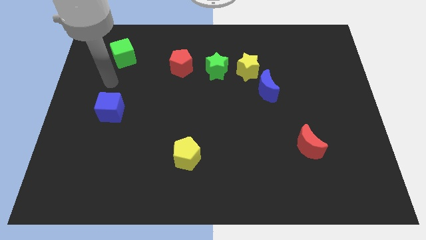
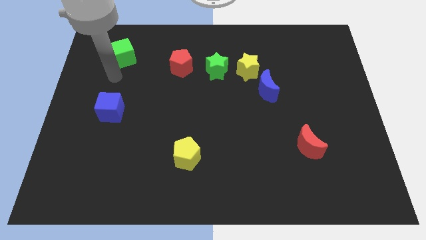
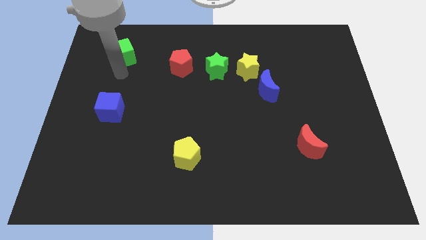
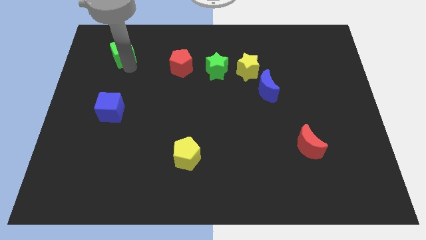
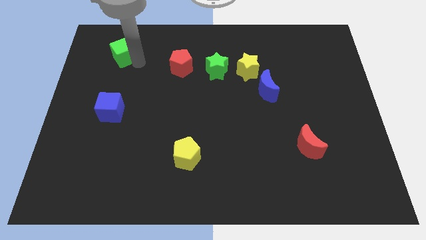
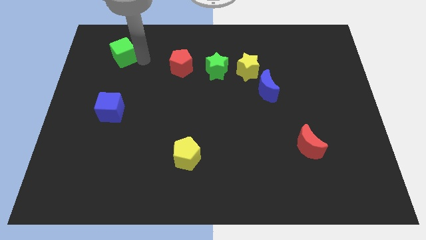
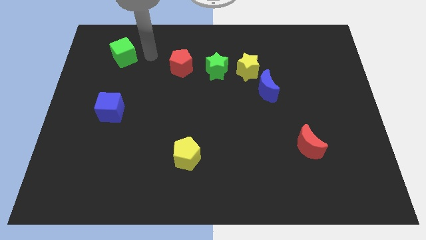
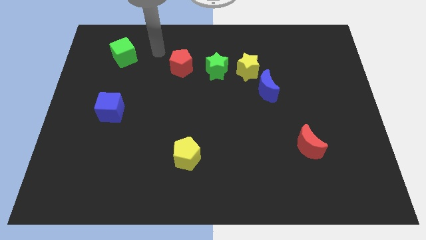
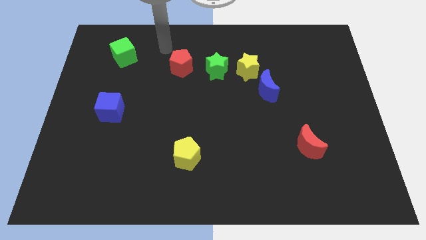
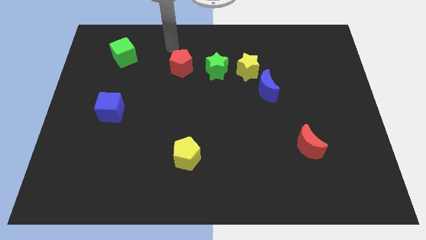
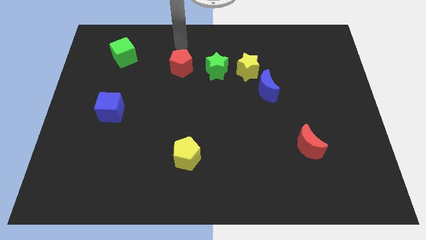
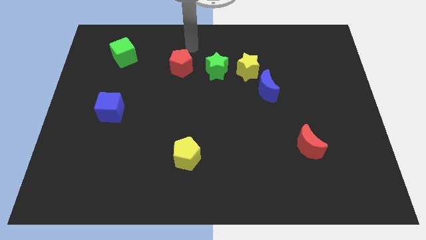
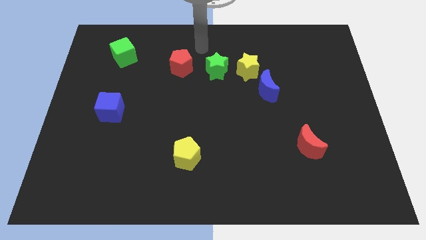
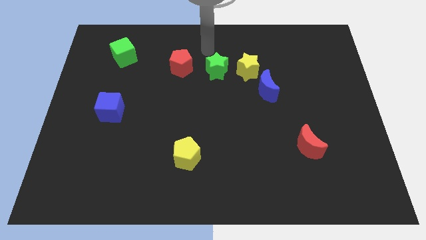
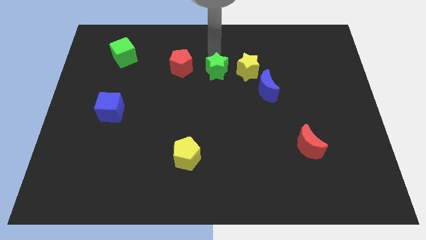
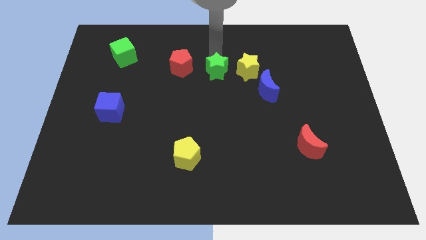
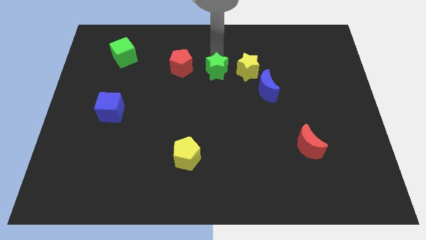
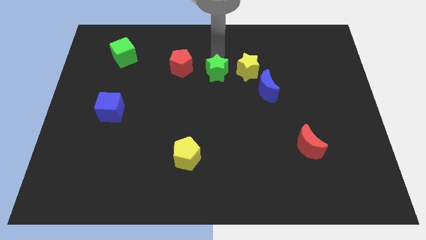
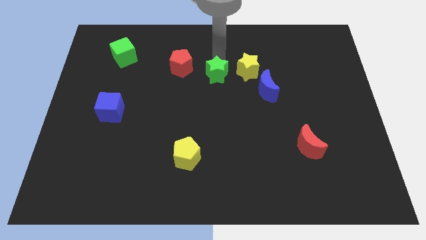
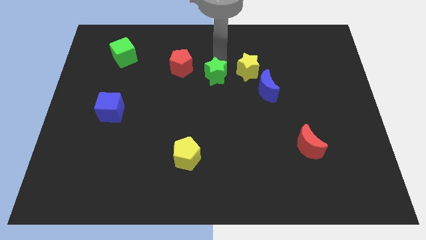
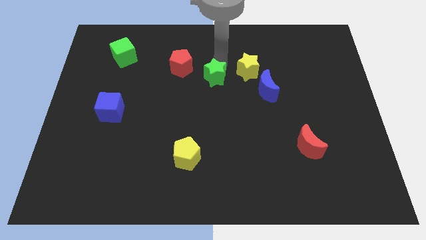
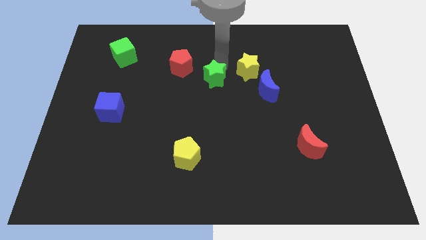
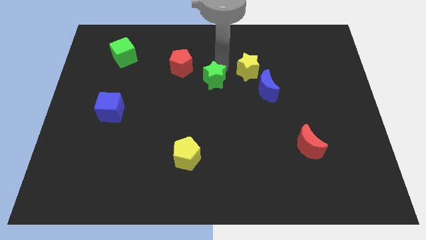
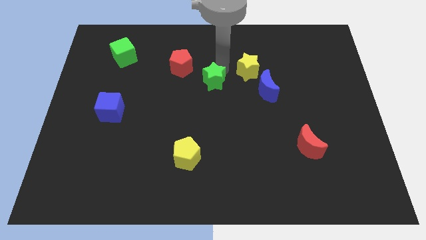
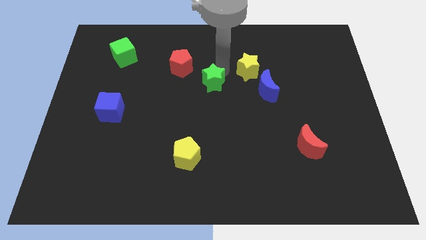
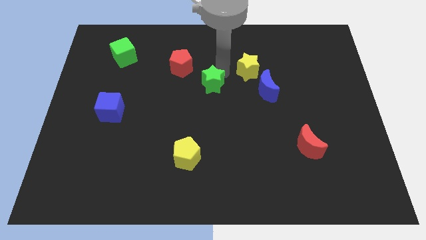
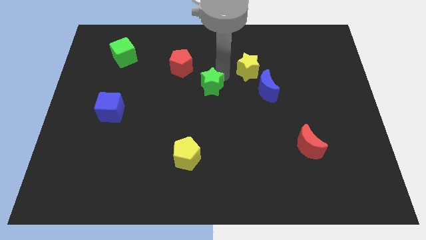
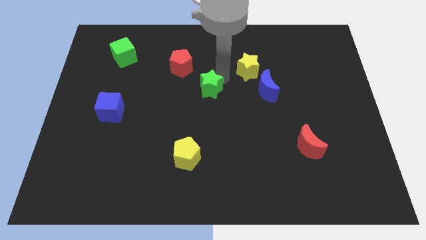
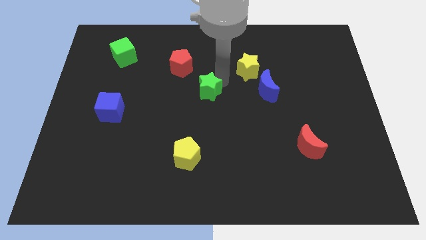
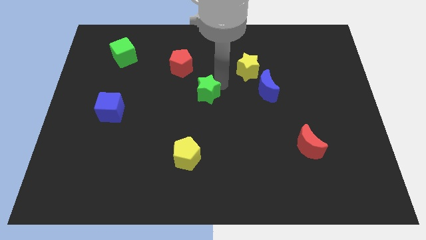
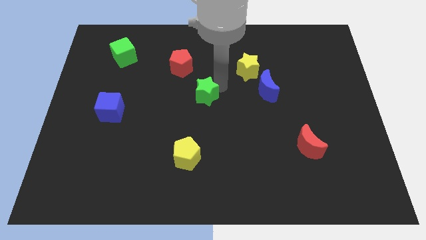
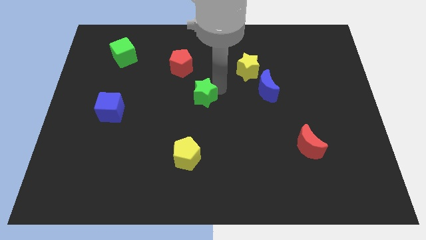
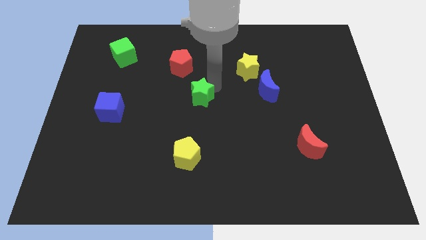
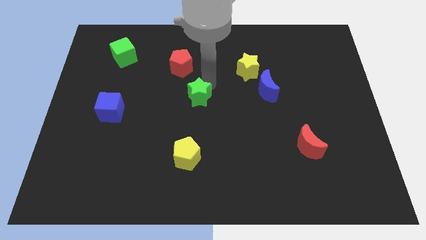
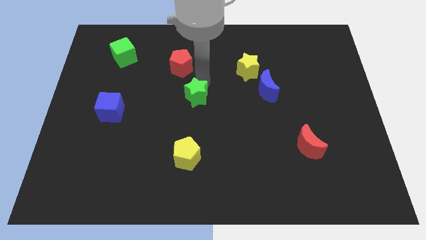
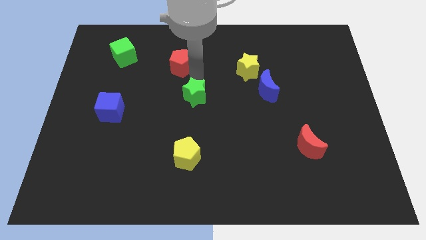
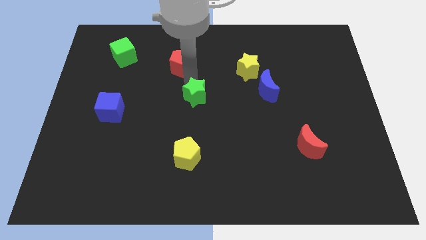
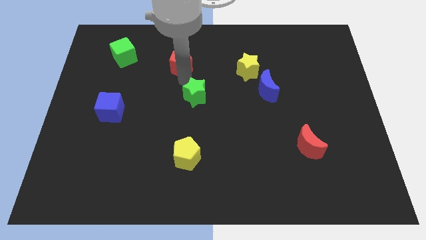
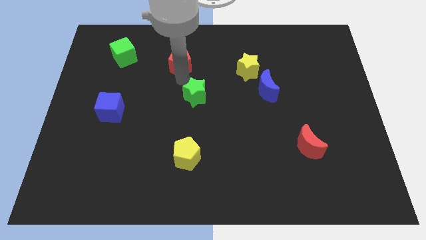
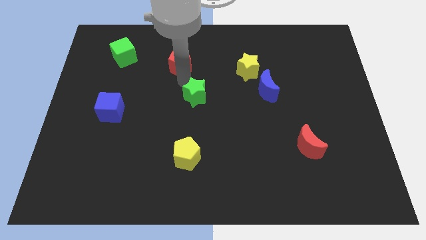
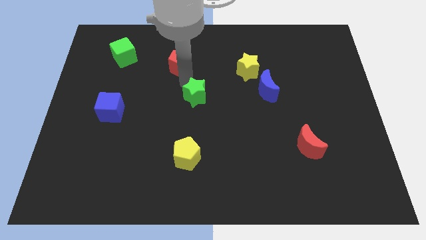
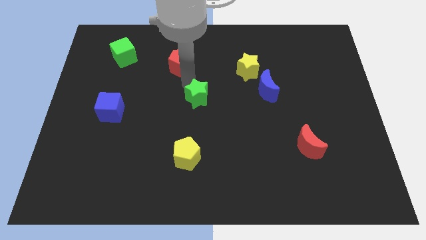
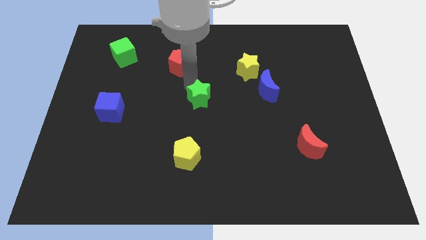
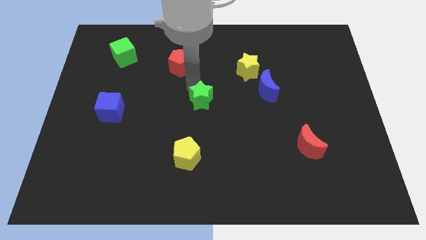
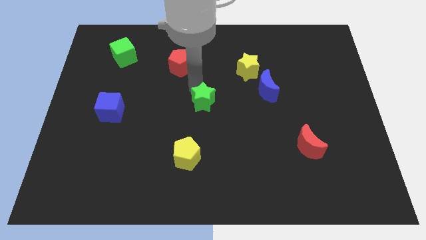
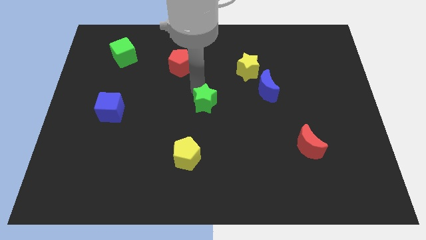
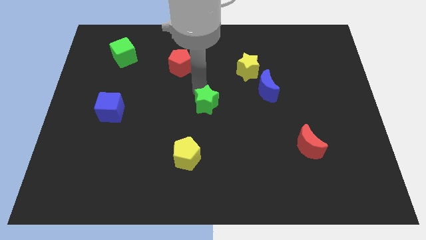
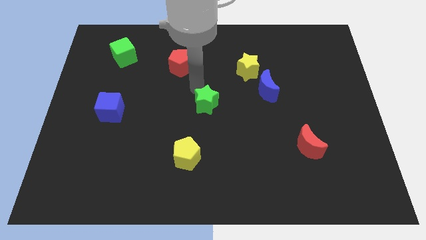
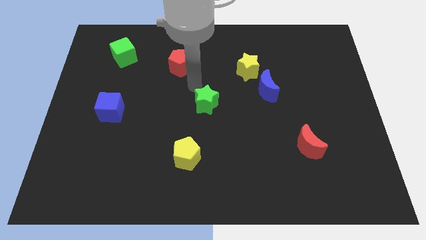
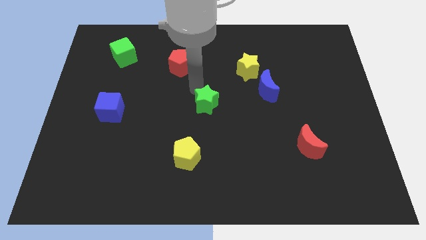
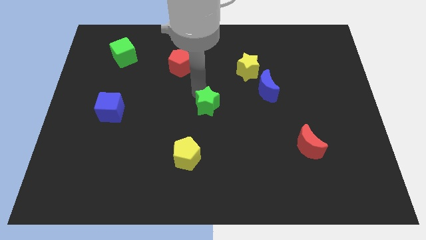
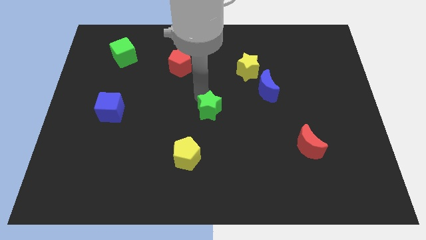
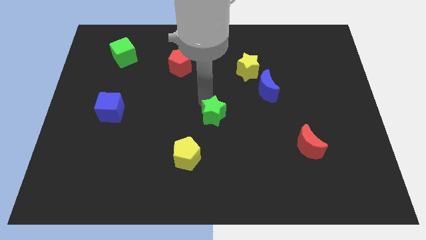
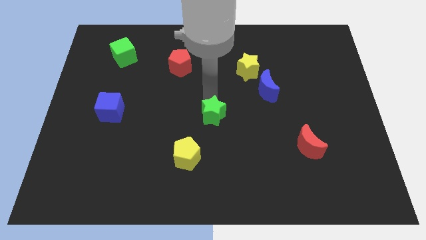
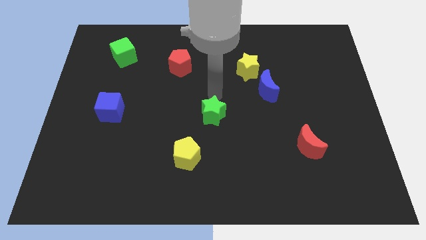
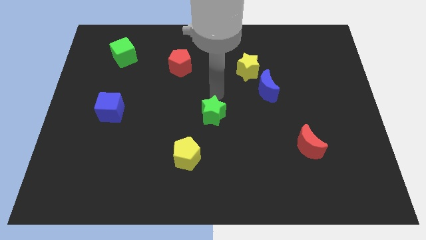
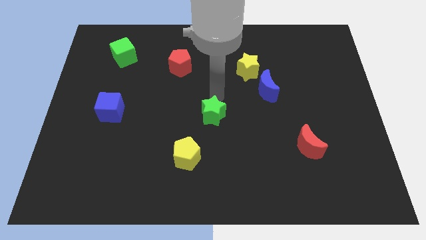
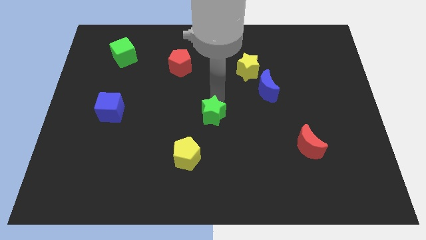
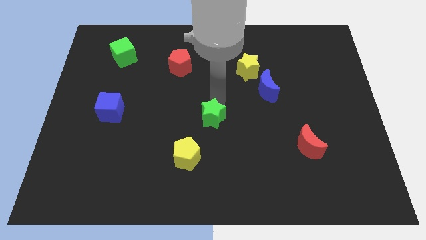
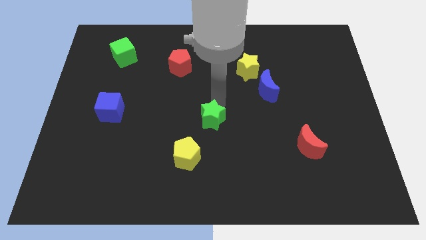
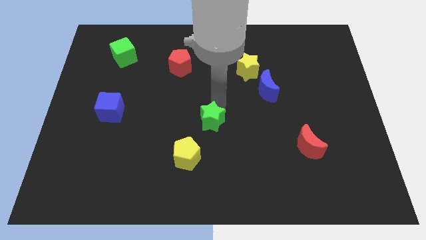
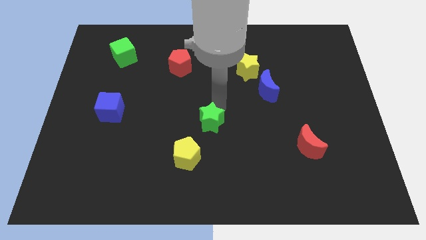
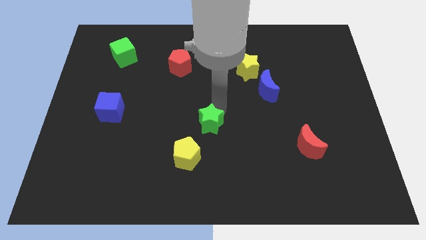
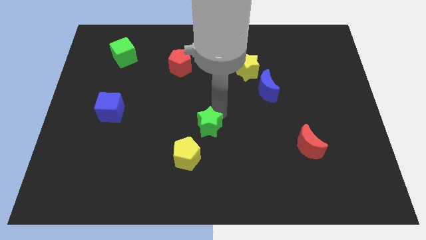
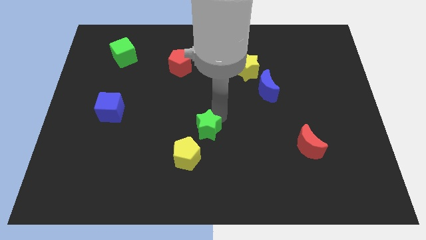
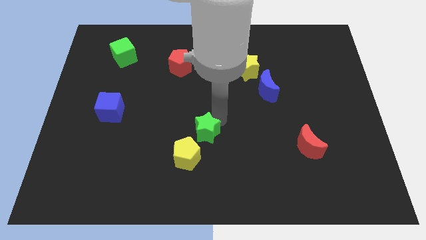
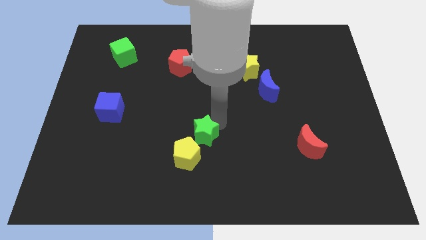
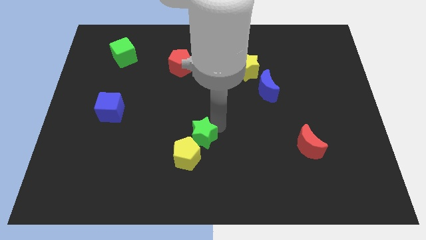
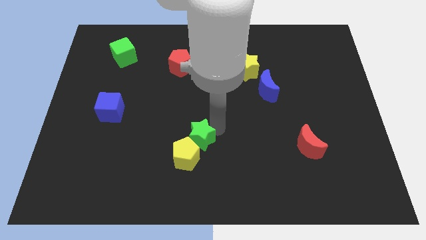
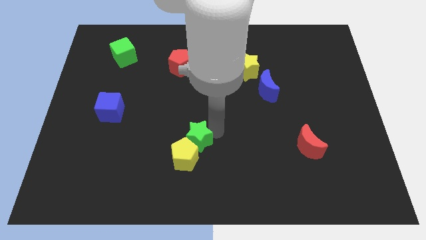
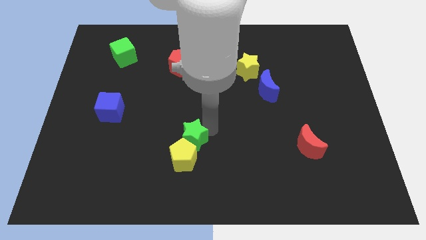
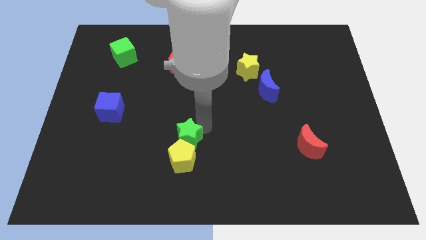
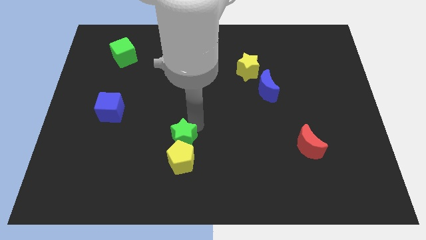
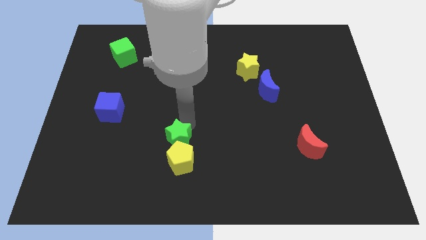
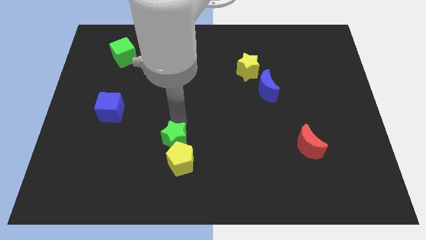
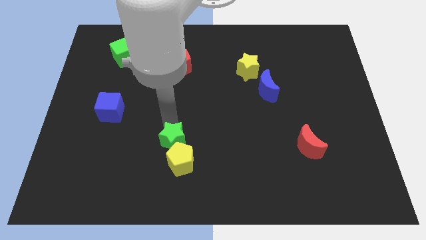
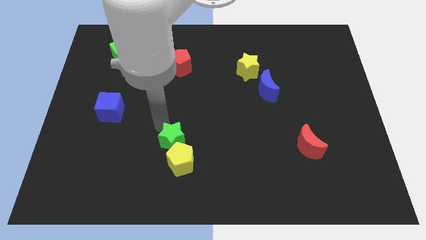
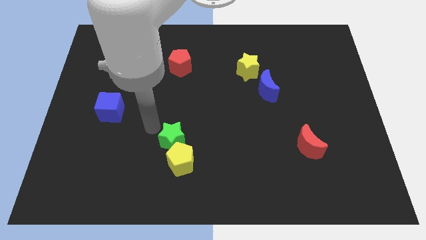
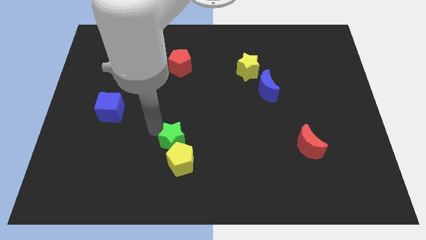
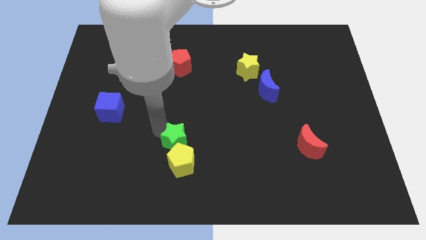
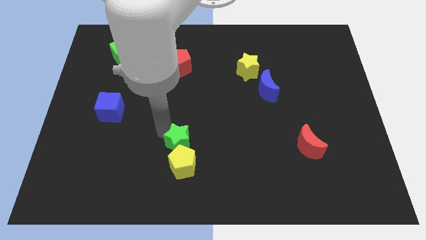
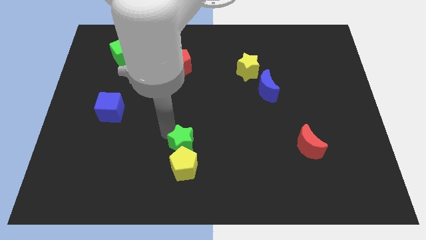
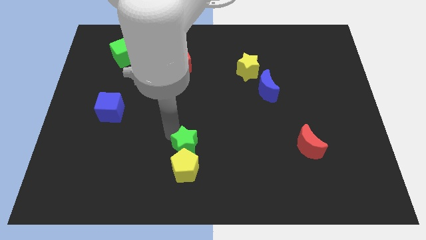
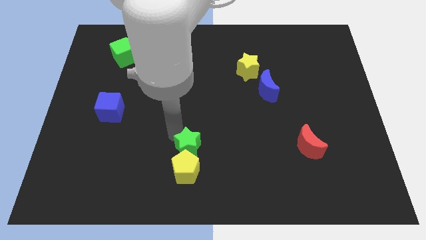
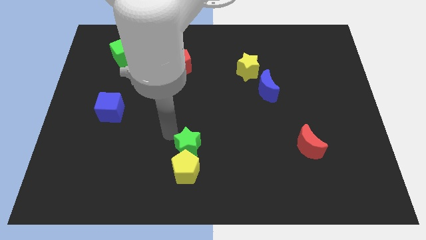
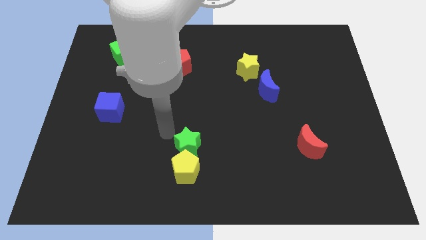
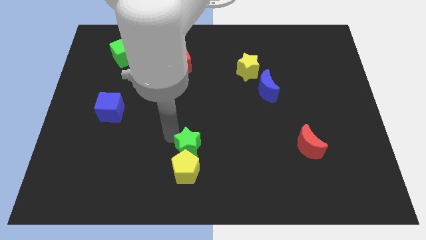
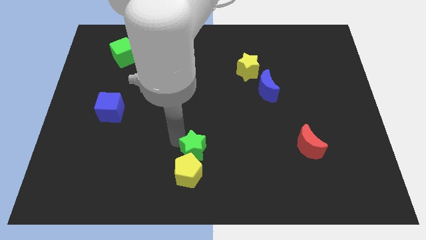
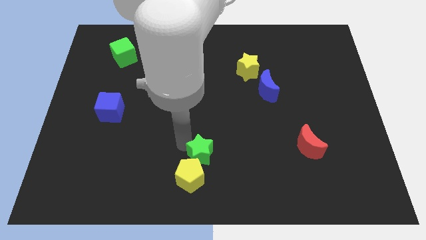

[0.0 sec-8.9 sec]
move the green star to the bottom side
